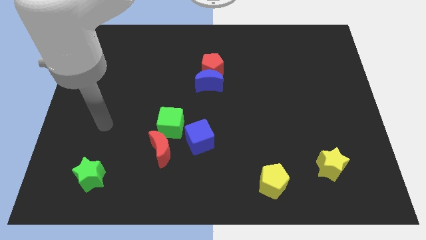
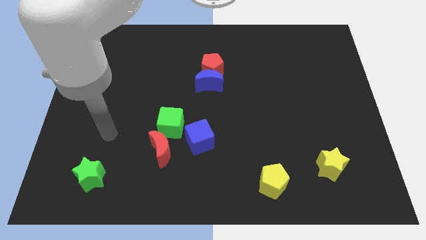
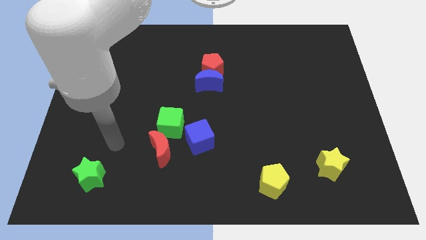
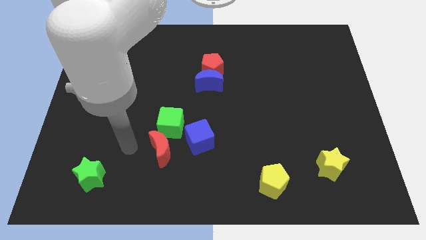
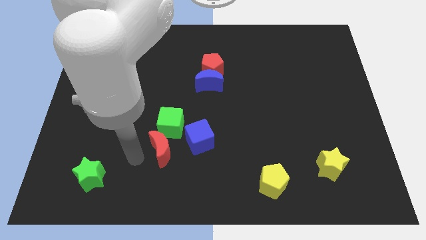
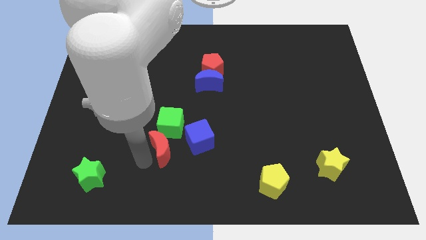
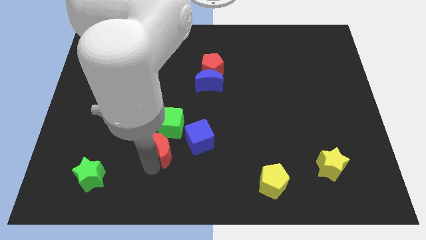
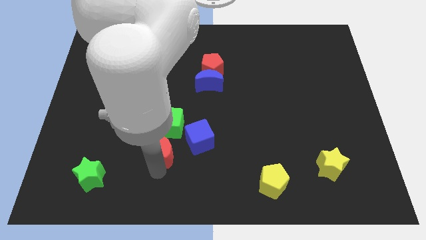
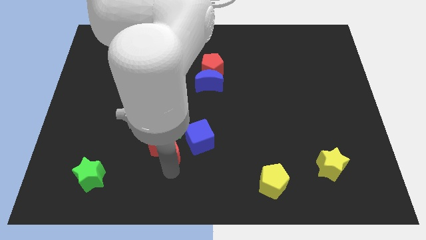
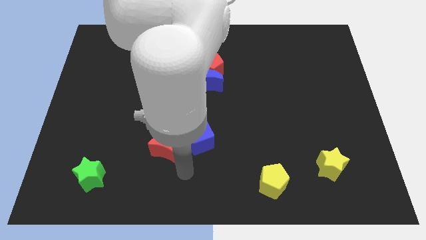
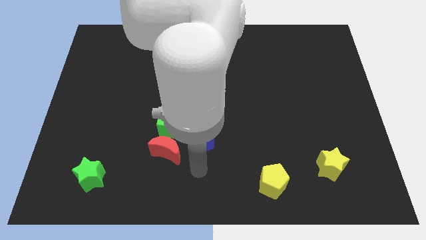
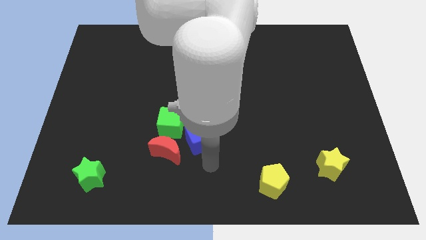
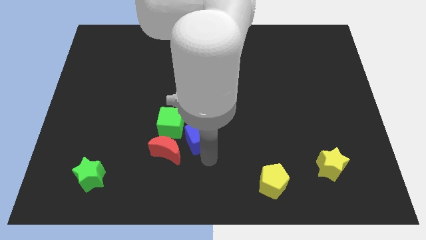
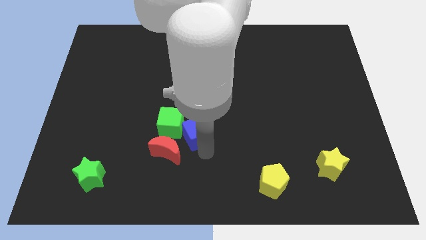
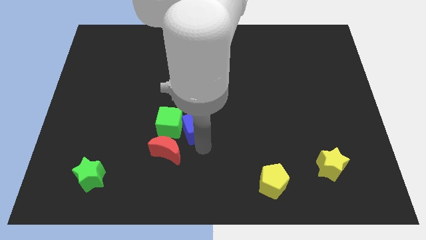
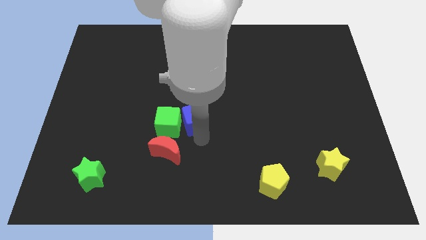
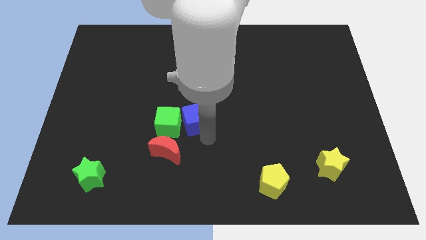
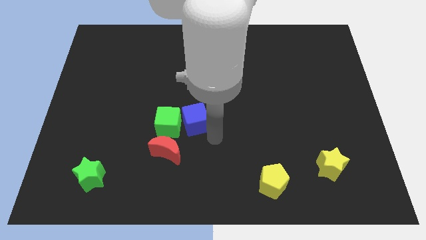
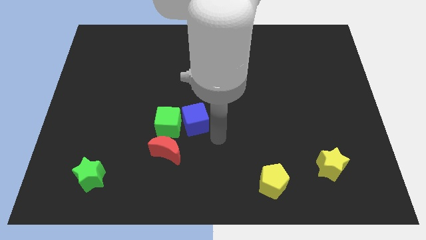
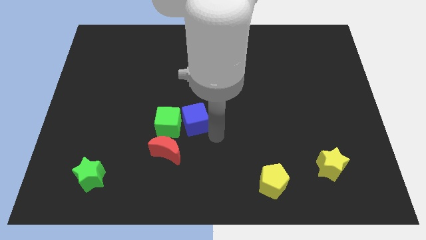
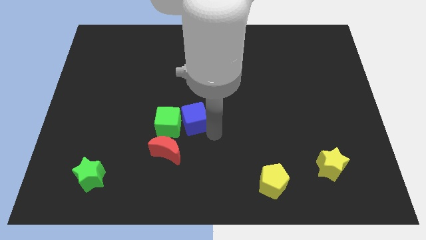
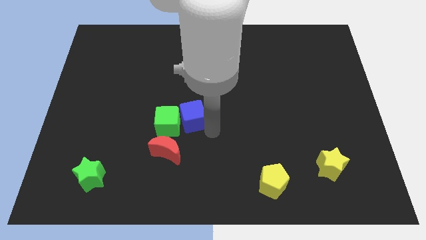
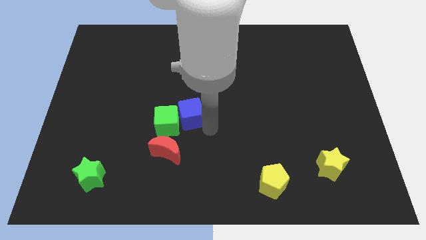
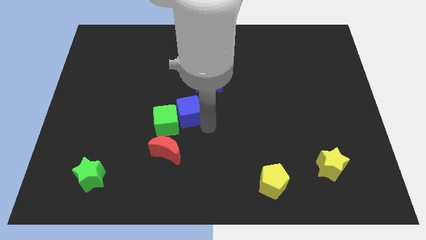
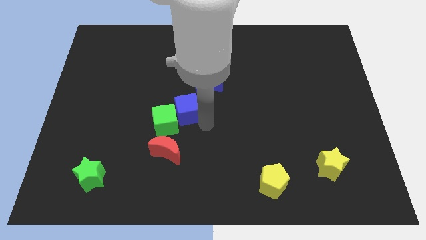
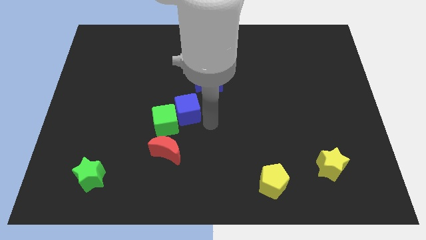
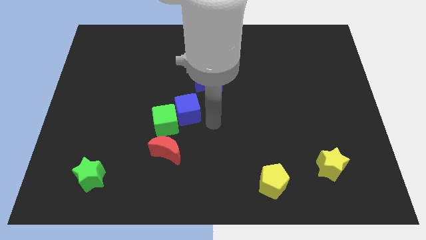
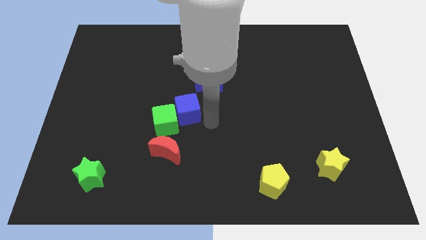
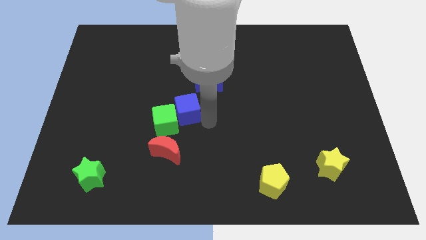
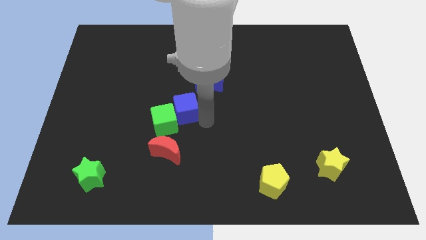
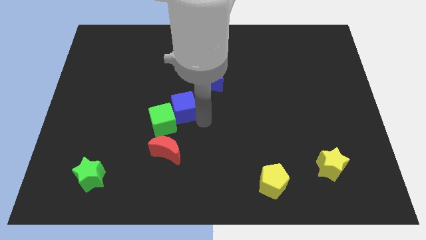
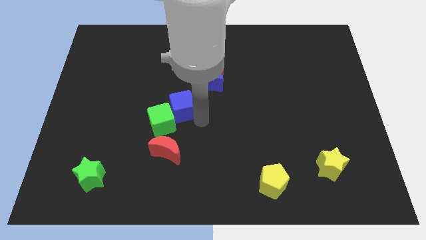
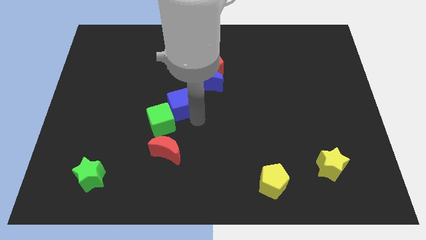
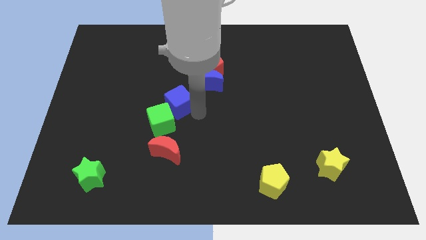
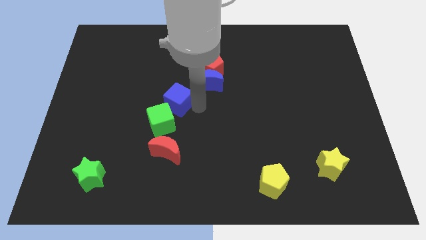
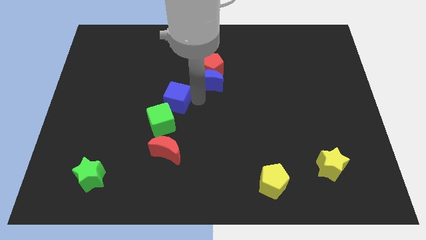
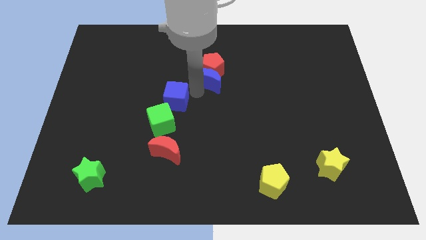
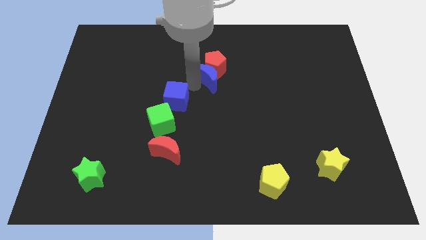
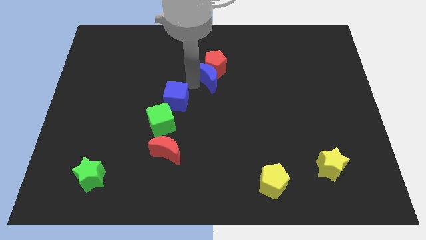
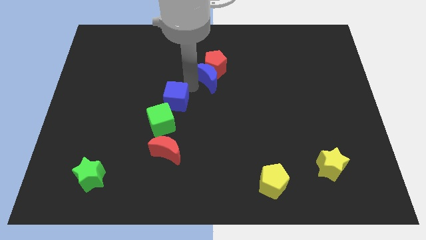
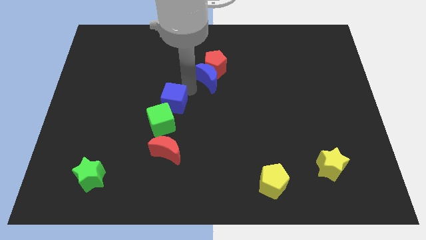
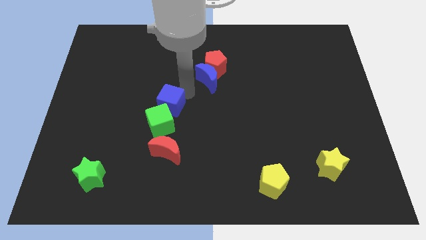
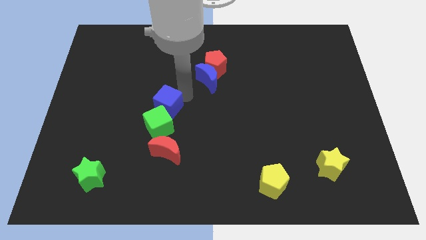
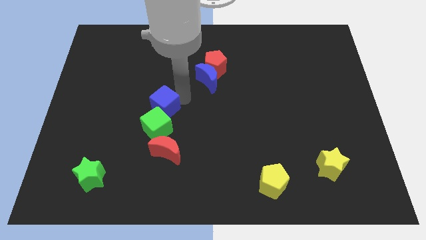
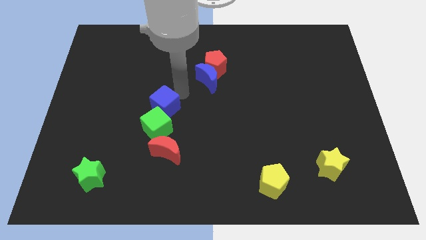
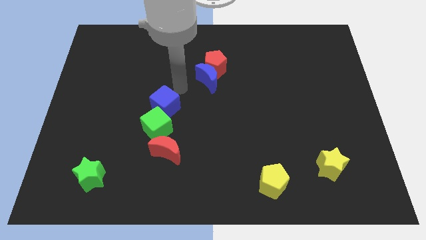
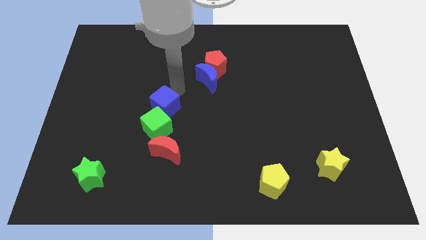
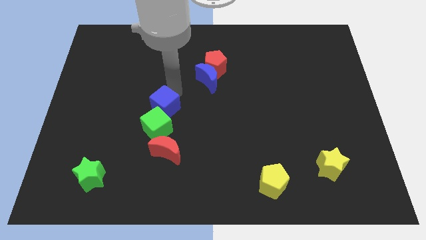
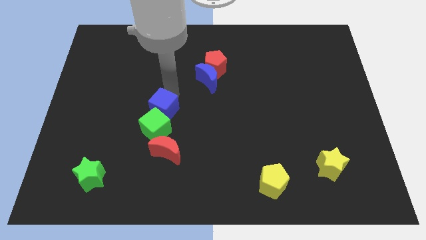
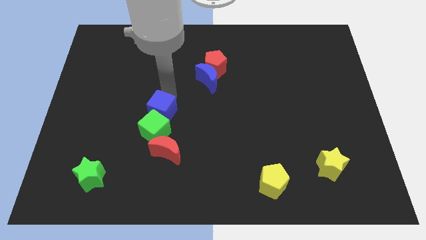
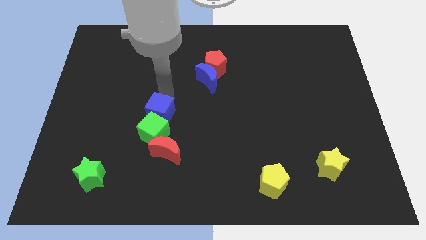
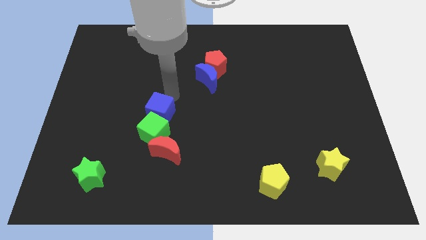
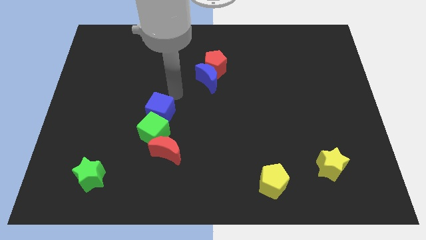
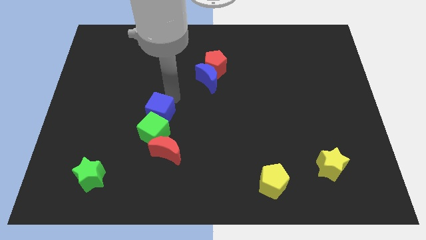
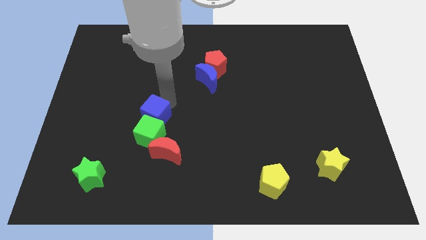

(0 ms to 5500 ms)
push the blue cube to the top left side of the red moon

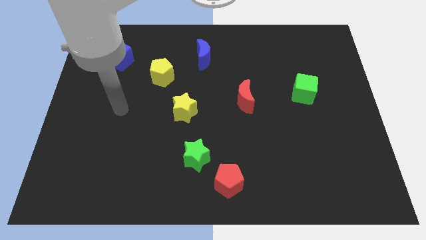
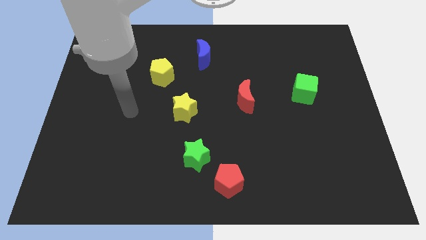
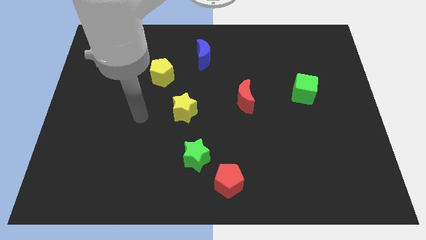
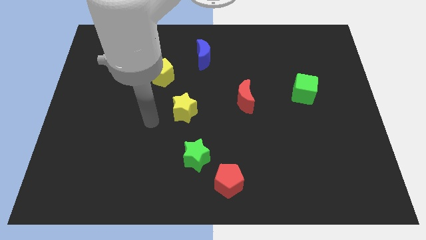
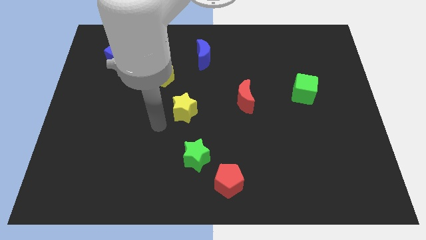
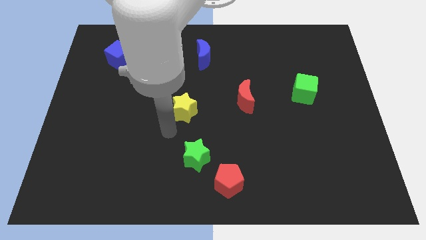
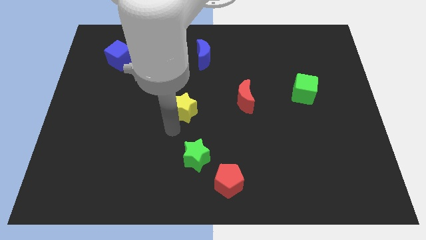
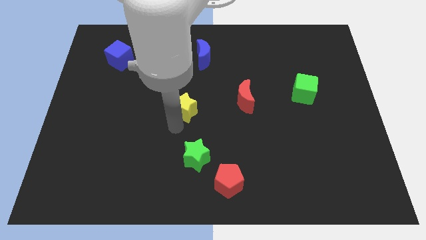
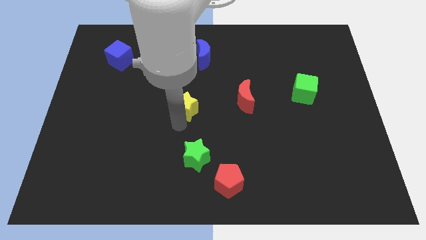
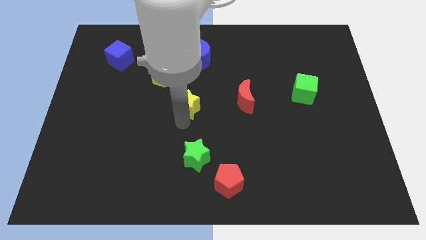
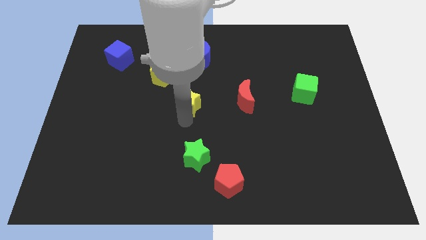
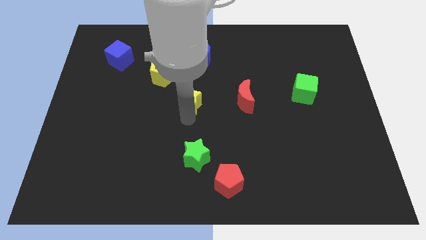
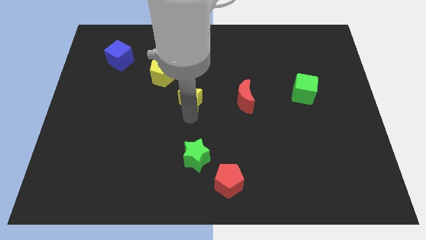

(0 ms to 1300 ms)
move the yellow star below the blue moon
